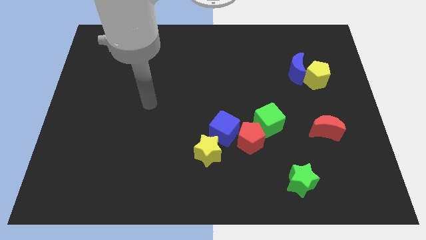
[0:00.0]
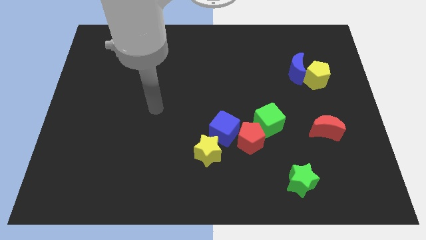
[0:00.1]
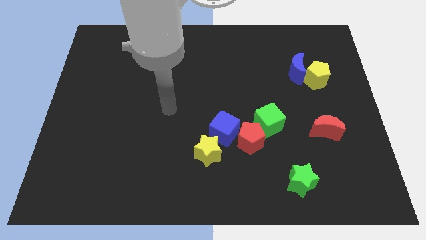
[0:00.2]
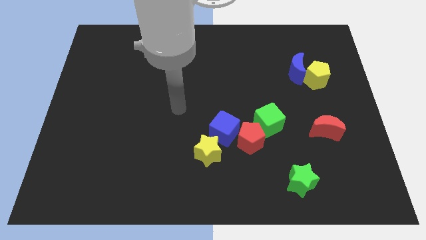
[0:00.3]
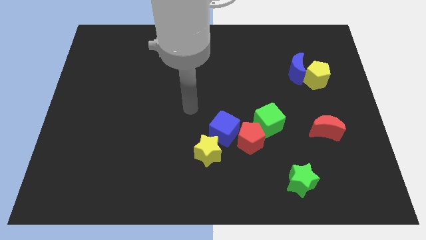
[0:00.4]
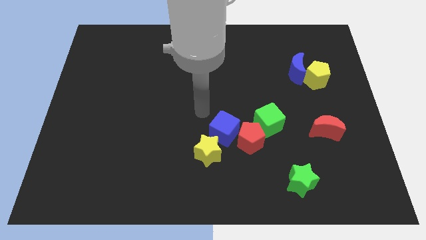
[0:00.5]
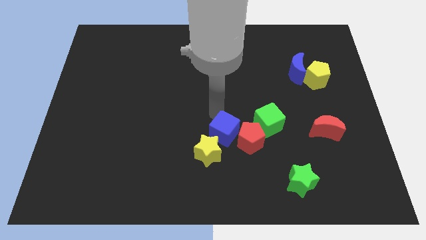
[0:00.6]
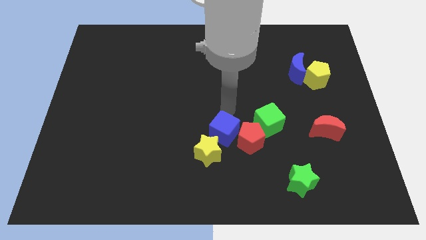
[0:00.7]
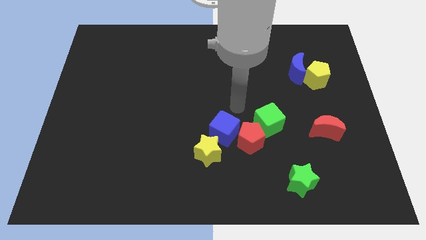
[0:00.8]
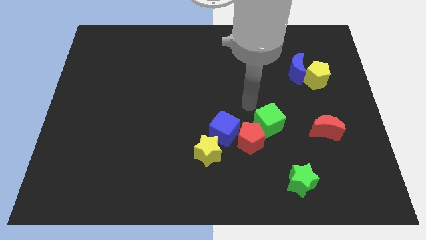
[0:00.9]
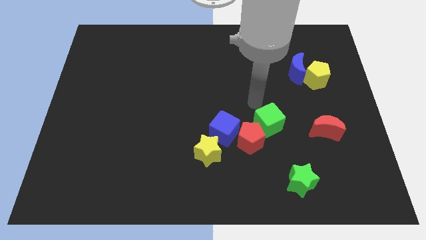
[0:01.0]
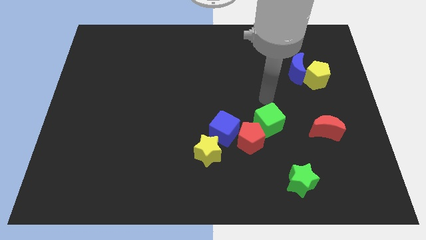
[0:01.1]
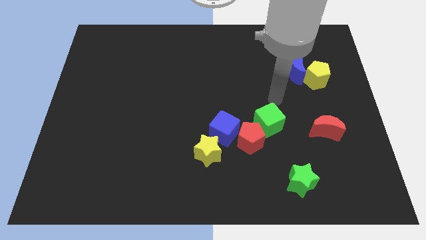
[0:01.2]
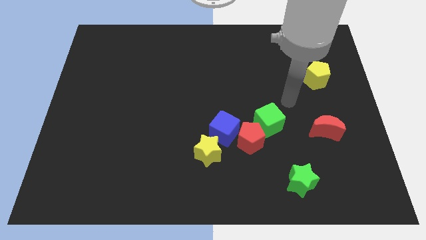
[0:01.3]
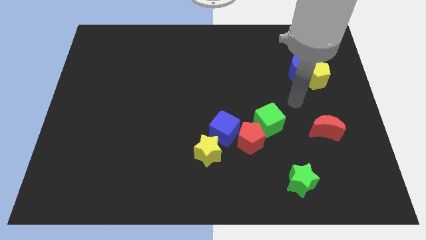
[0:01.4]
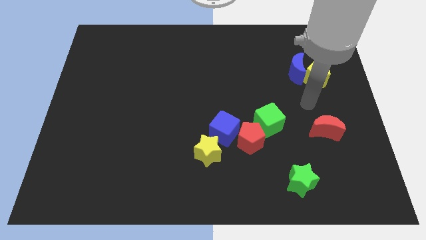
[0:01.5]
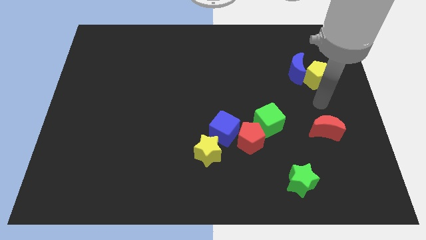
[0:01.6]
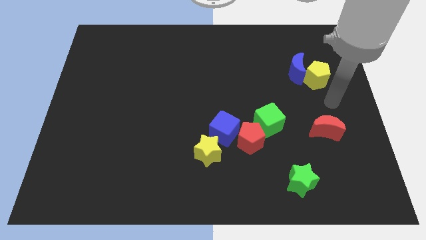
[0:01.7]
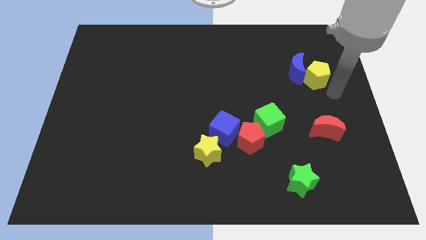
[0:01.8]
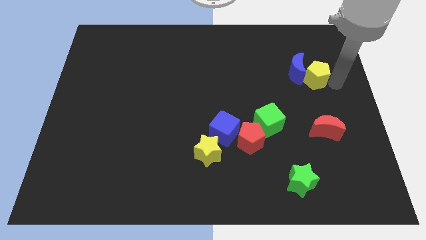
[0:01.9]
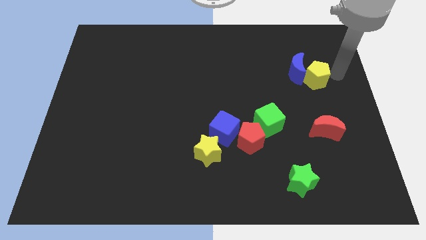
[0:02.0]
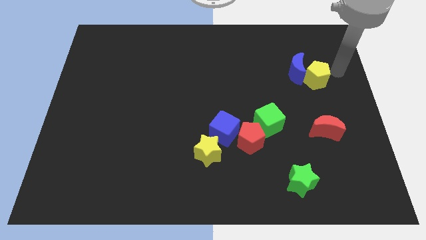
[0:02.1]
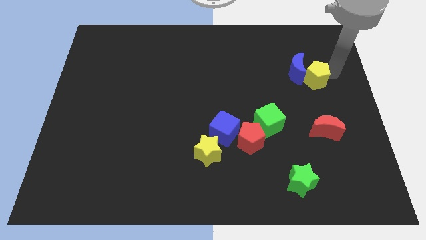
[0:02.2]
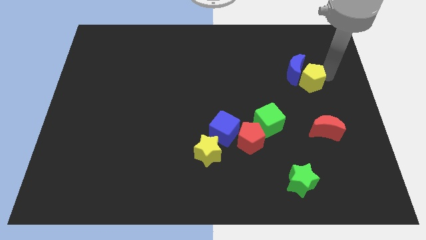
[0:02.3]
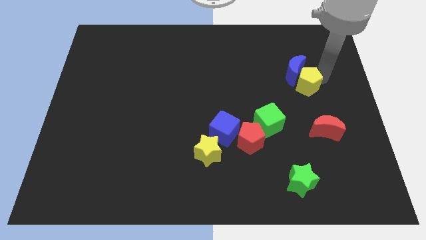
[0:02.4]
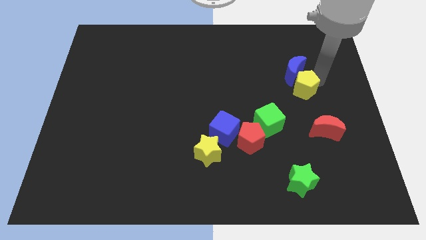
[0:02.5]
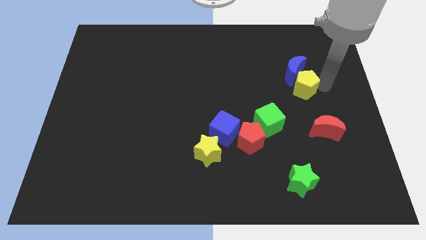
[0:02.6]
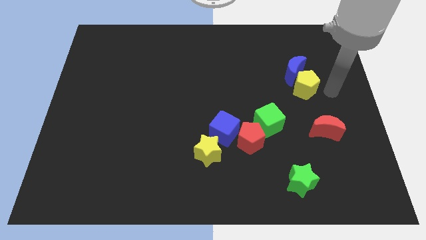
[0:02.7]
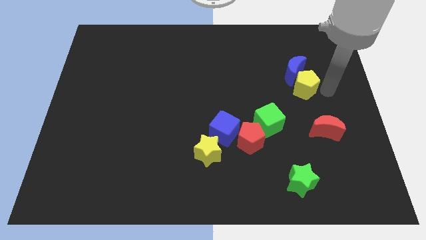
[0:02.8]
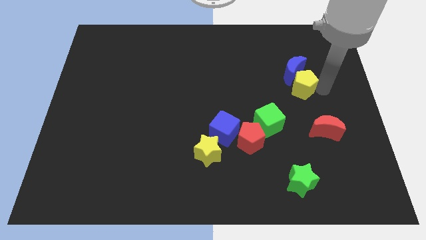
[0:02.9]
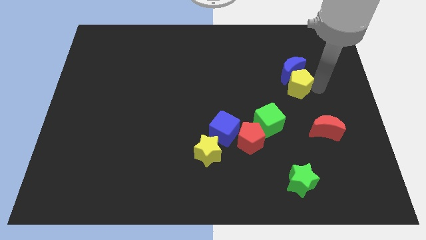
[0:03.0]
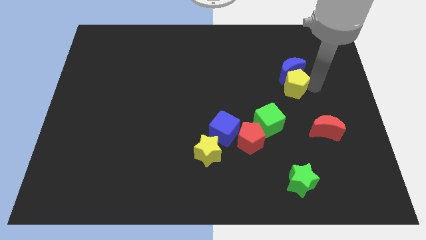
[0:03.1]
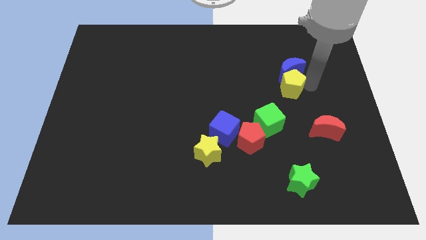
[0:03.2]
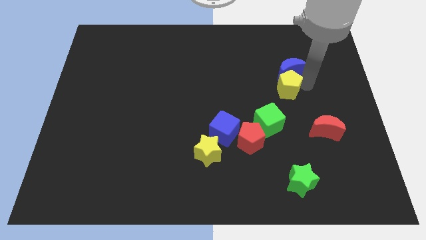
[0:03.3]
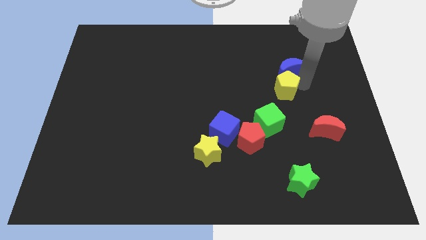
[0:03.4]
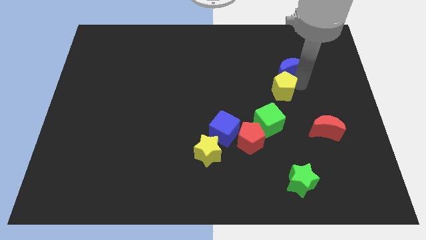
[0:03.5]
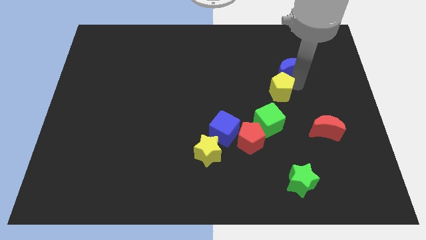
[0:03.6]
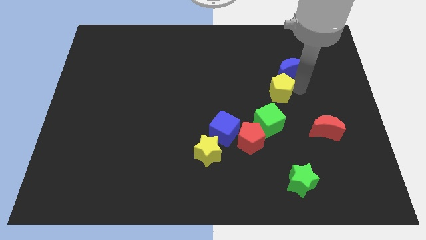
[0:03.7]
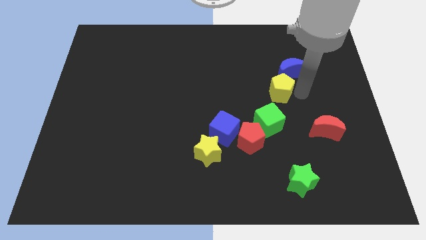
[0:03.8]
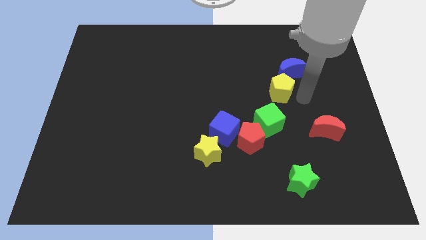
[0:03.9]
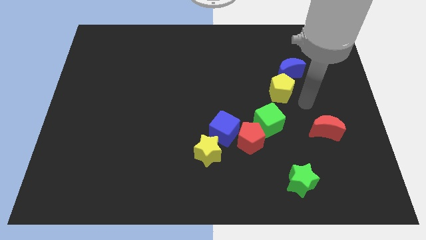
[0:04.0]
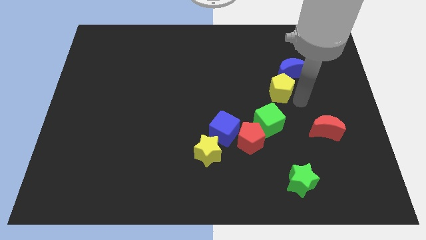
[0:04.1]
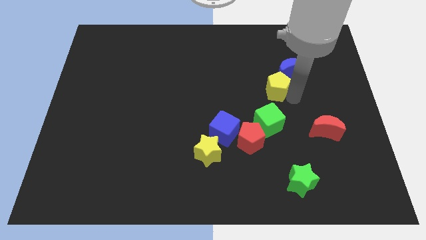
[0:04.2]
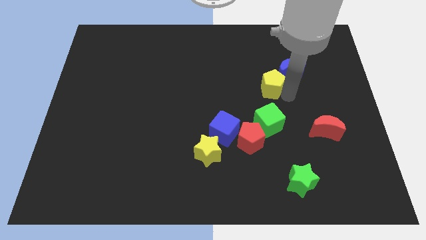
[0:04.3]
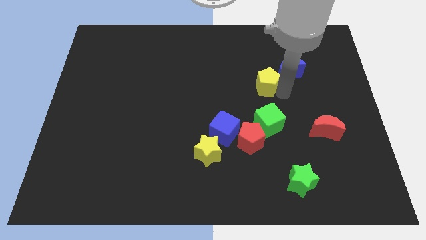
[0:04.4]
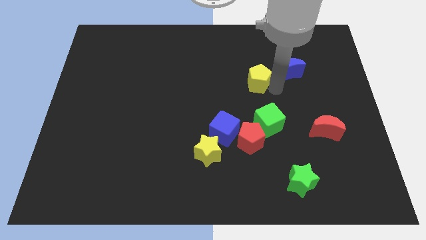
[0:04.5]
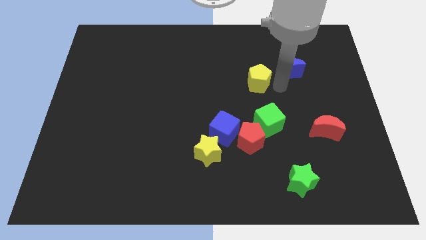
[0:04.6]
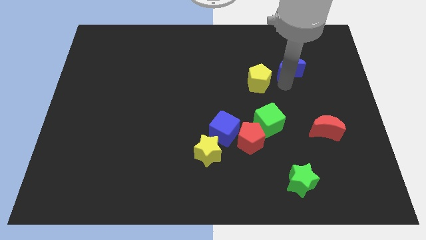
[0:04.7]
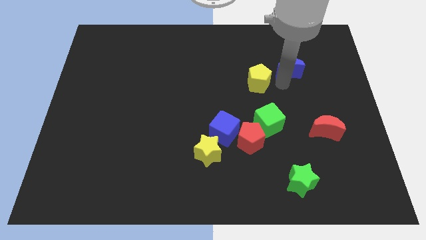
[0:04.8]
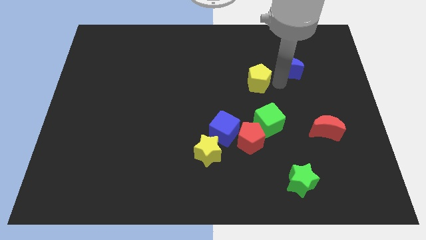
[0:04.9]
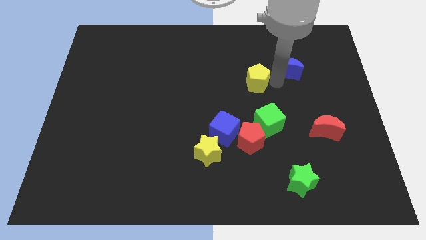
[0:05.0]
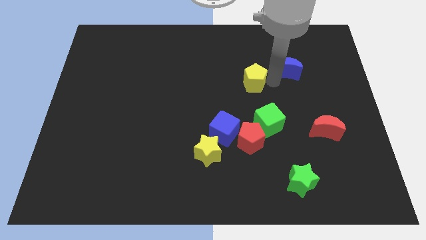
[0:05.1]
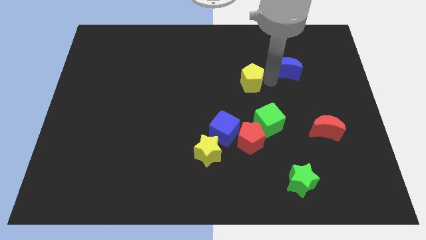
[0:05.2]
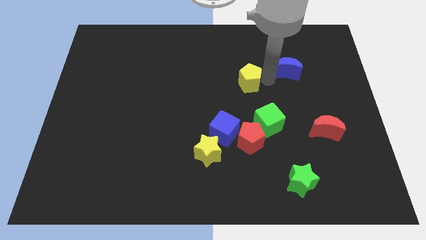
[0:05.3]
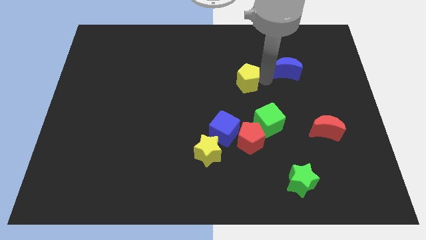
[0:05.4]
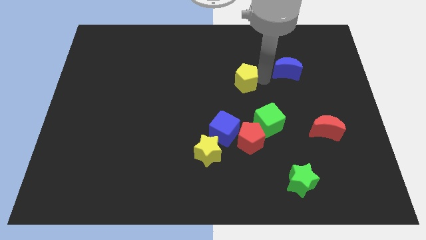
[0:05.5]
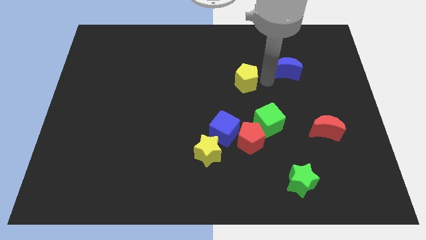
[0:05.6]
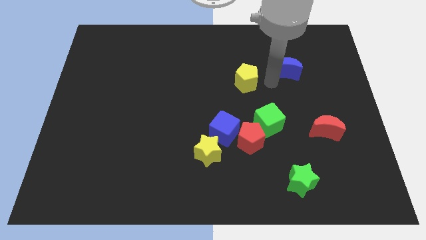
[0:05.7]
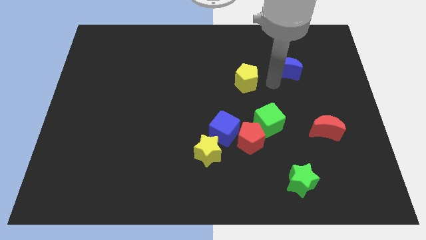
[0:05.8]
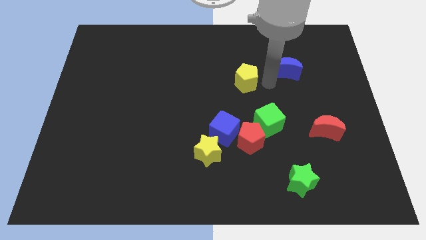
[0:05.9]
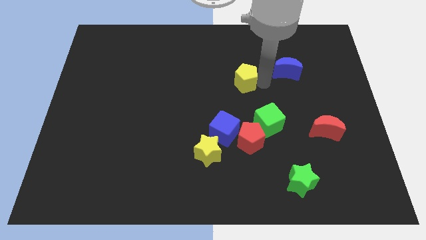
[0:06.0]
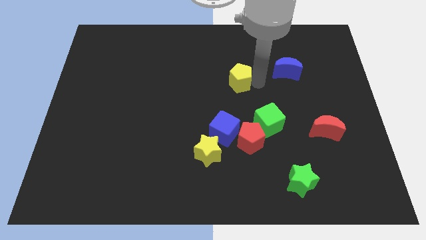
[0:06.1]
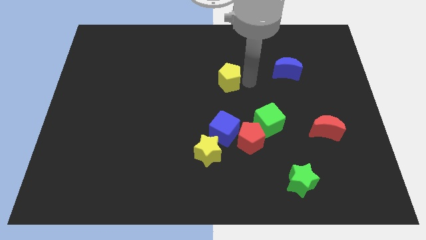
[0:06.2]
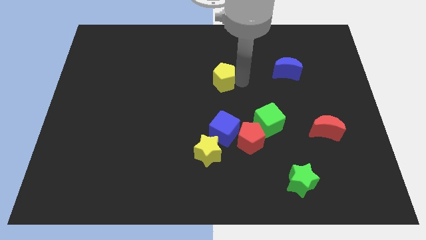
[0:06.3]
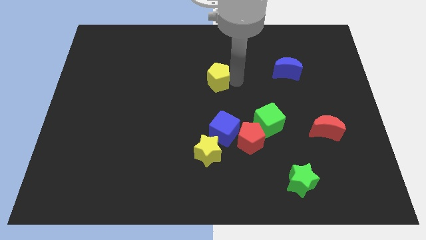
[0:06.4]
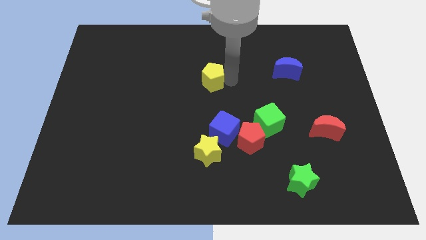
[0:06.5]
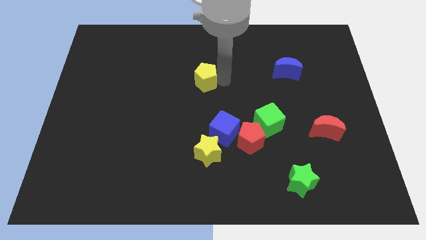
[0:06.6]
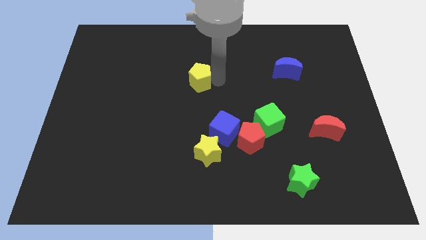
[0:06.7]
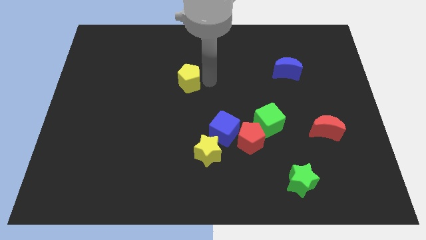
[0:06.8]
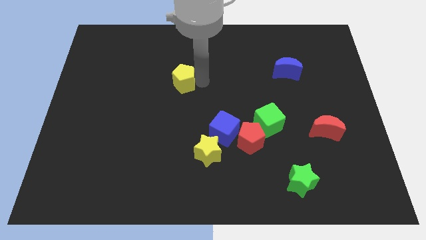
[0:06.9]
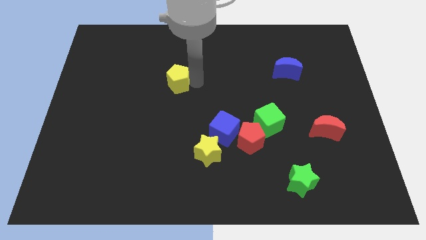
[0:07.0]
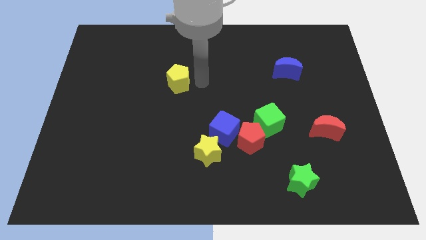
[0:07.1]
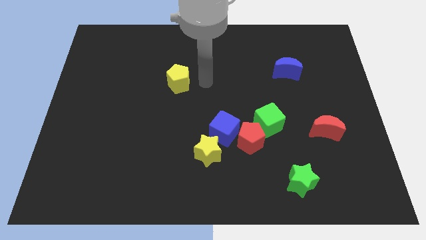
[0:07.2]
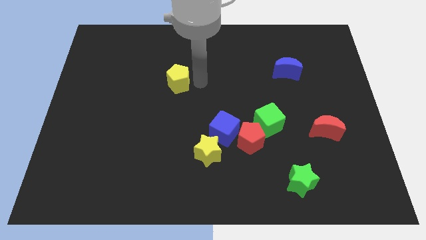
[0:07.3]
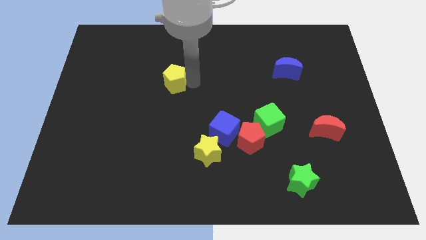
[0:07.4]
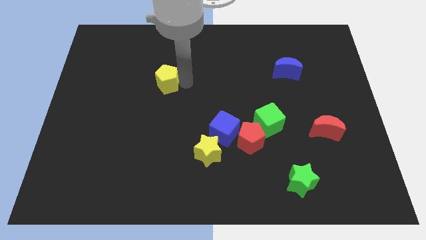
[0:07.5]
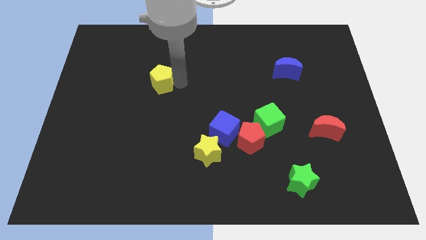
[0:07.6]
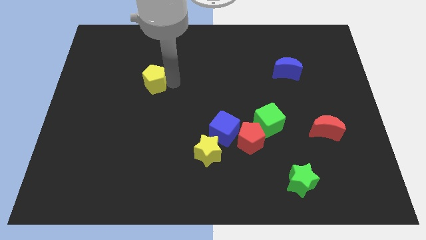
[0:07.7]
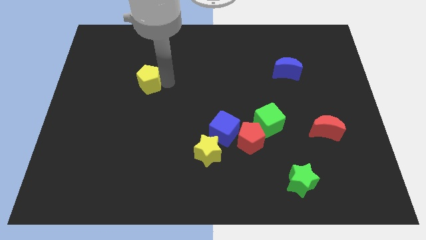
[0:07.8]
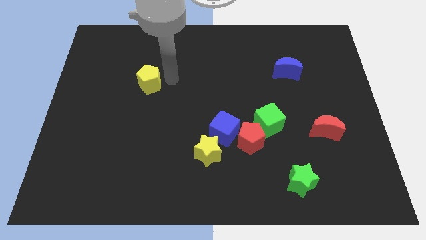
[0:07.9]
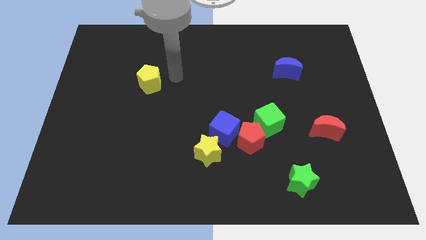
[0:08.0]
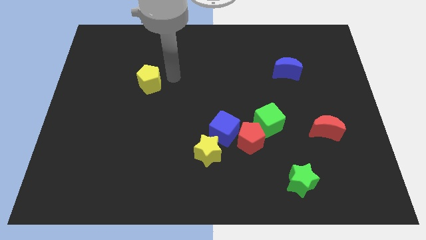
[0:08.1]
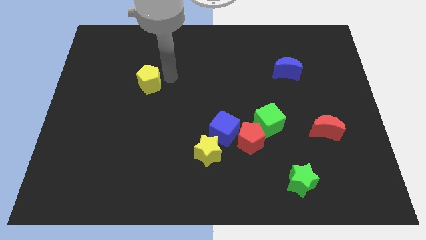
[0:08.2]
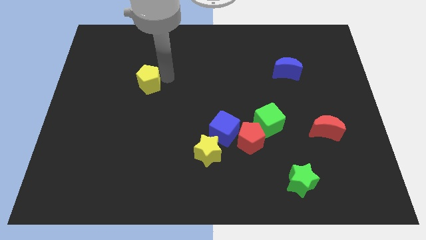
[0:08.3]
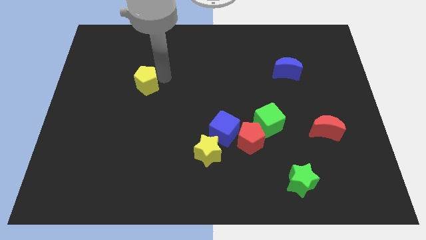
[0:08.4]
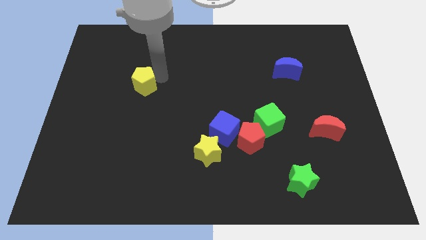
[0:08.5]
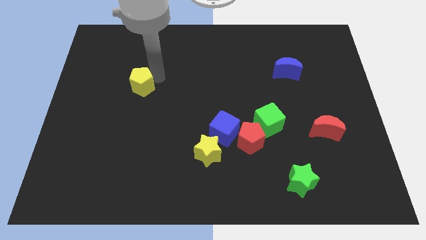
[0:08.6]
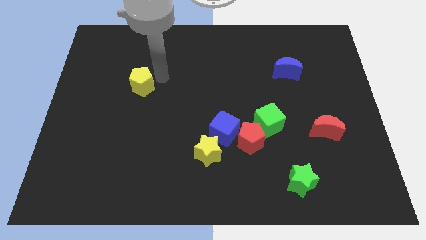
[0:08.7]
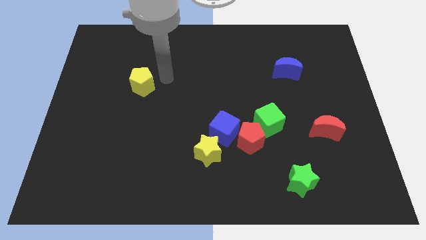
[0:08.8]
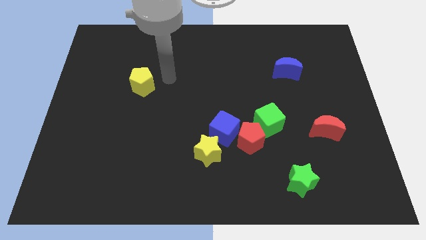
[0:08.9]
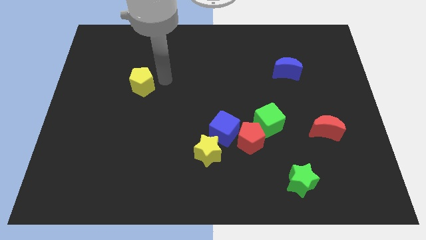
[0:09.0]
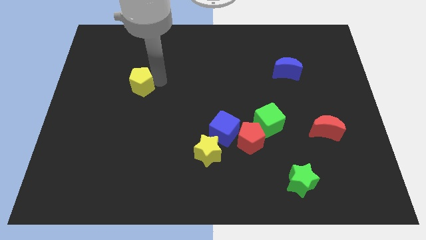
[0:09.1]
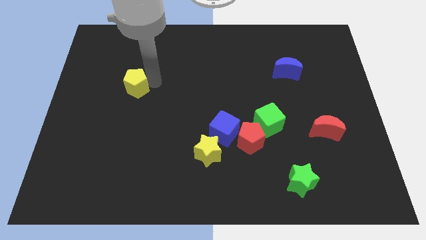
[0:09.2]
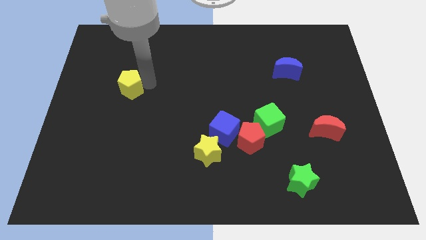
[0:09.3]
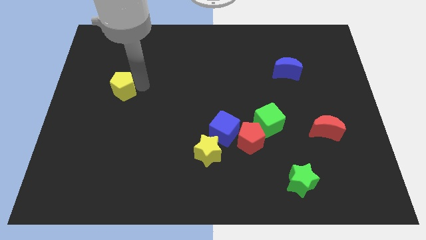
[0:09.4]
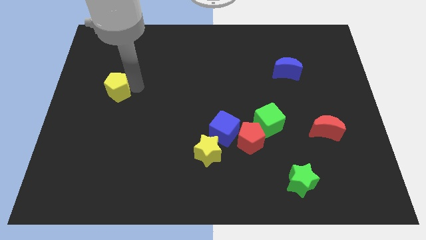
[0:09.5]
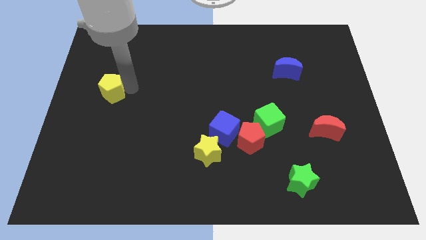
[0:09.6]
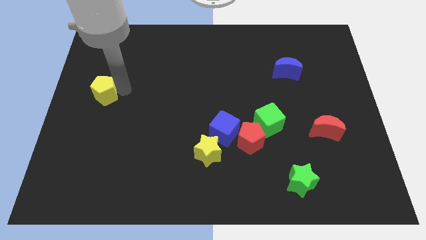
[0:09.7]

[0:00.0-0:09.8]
move the yellow pentagon to the left side of the board
